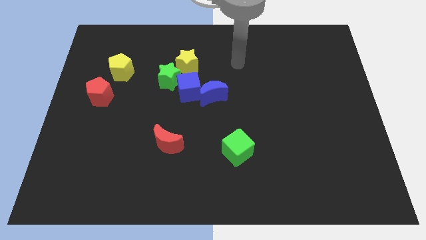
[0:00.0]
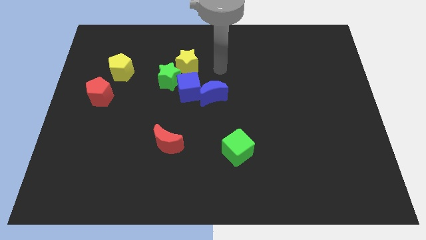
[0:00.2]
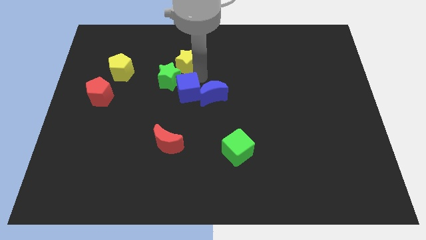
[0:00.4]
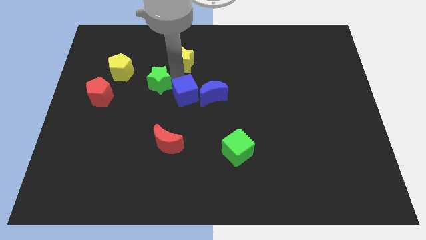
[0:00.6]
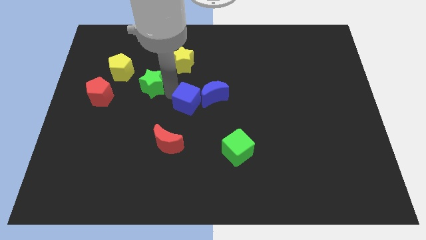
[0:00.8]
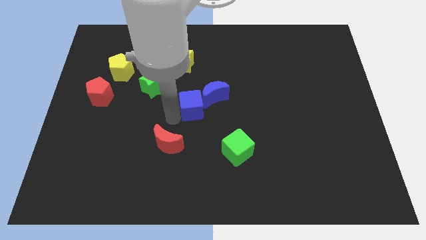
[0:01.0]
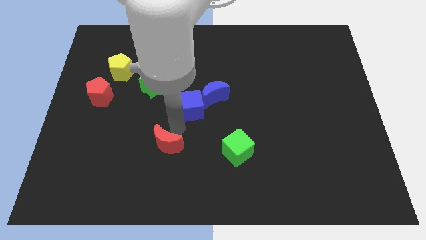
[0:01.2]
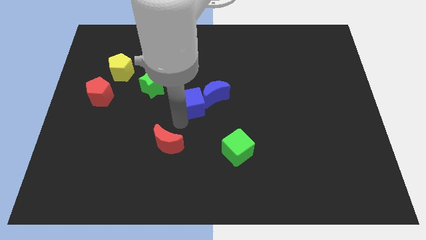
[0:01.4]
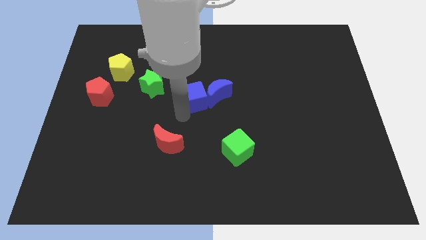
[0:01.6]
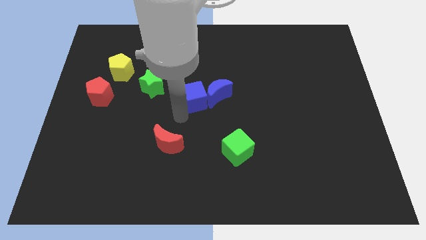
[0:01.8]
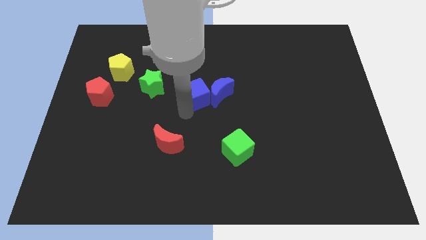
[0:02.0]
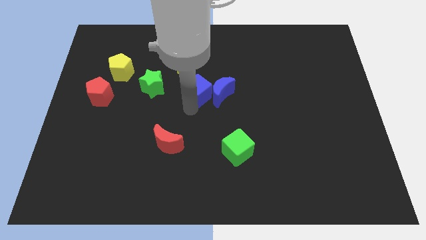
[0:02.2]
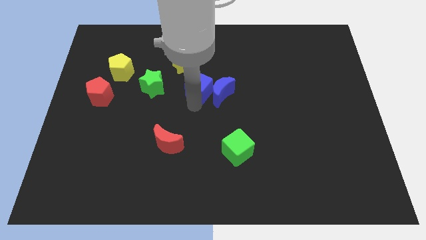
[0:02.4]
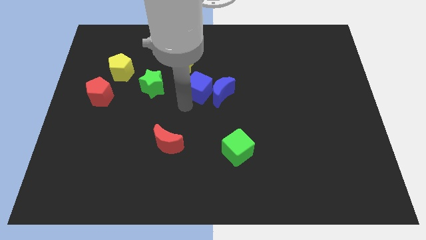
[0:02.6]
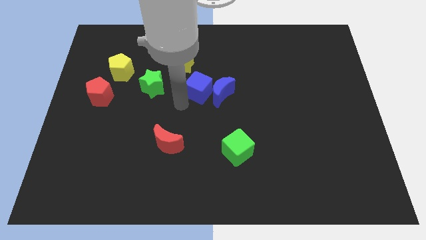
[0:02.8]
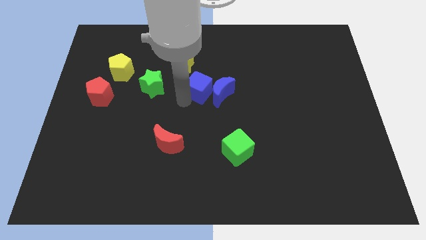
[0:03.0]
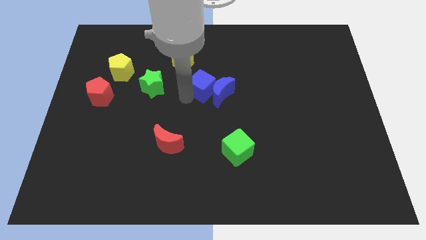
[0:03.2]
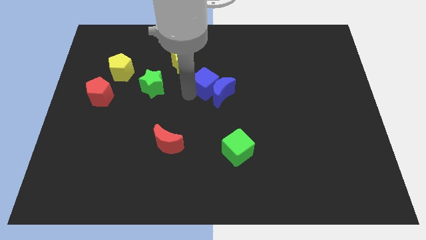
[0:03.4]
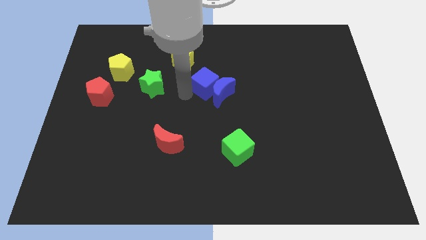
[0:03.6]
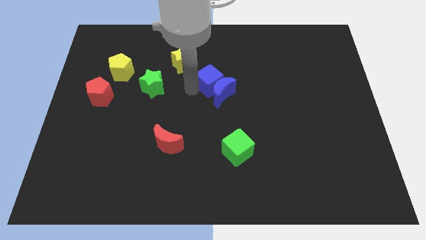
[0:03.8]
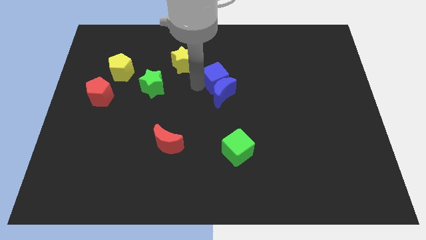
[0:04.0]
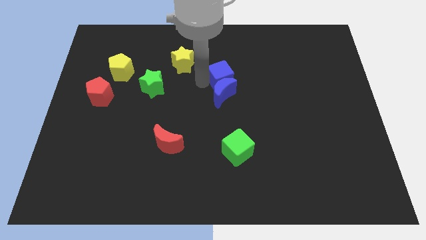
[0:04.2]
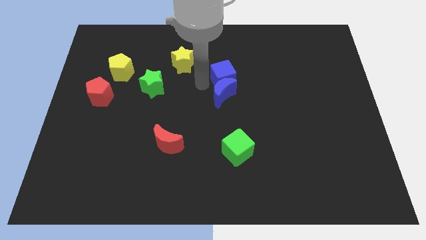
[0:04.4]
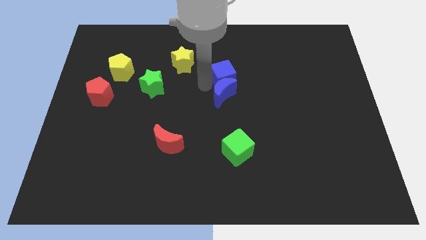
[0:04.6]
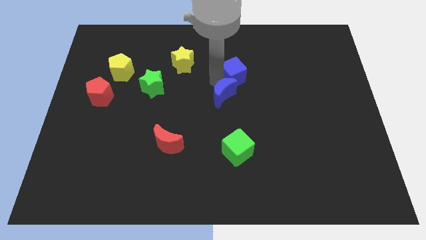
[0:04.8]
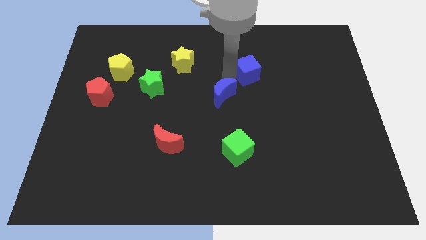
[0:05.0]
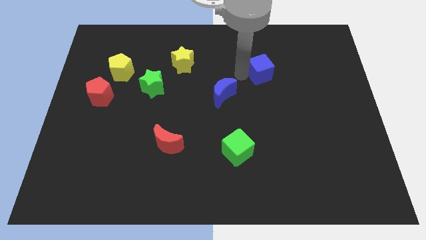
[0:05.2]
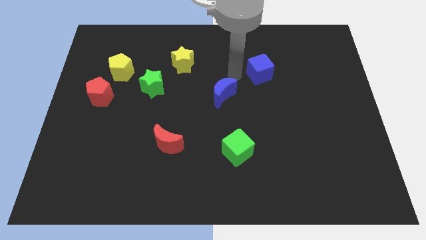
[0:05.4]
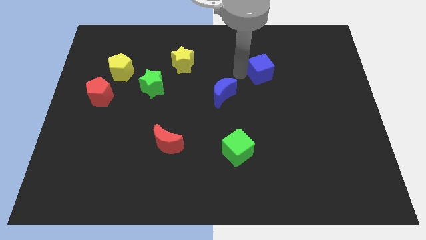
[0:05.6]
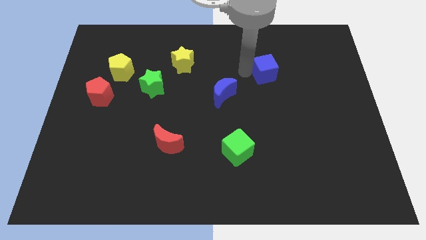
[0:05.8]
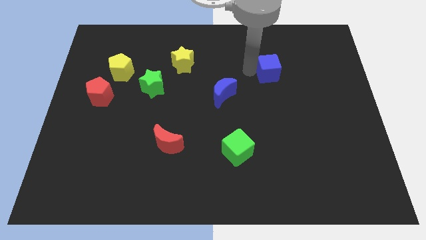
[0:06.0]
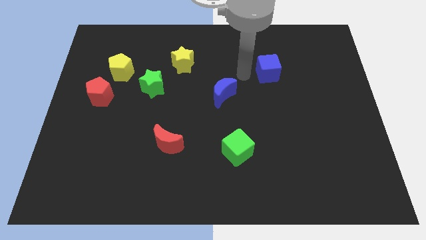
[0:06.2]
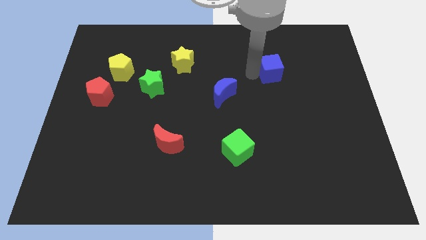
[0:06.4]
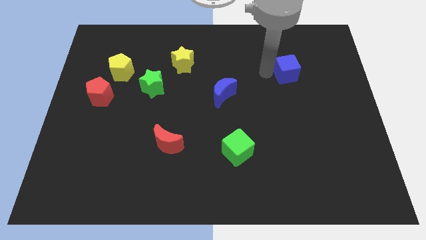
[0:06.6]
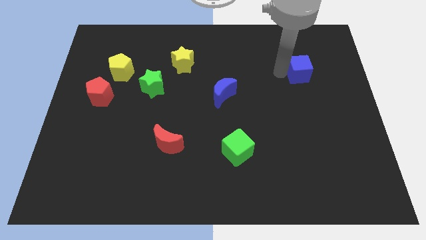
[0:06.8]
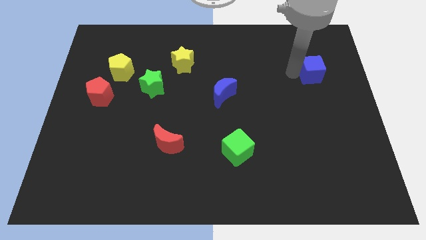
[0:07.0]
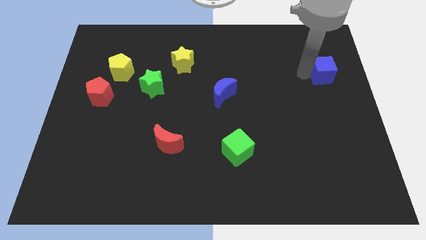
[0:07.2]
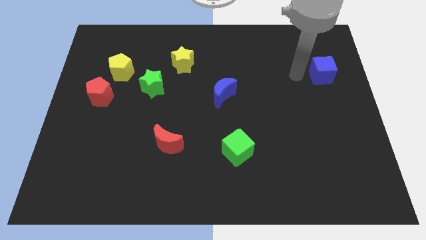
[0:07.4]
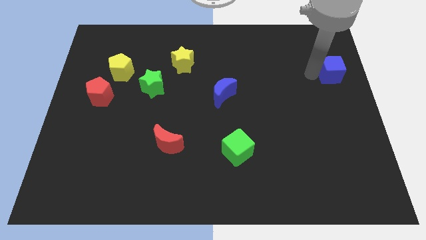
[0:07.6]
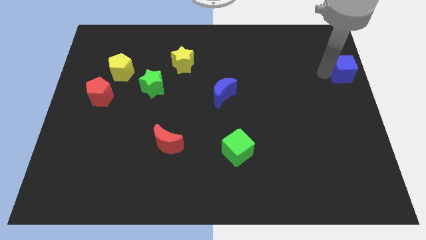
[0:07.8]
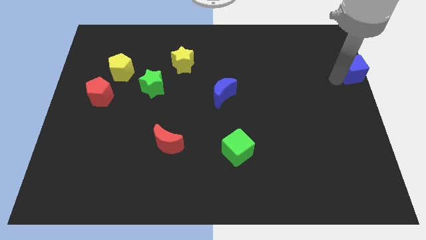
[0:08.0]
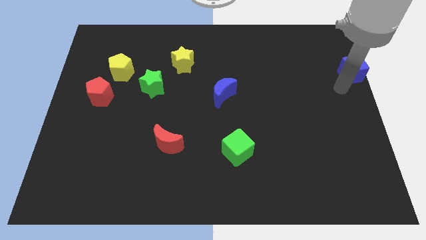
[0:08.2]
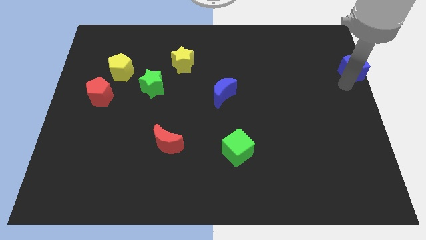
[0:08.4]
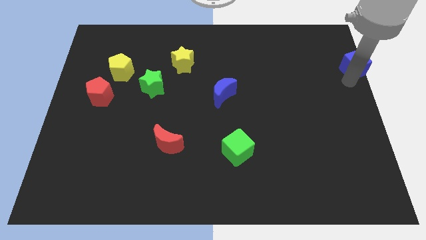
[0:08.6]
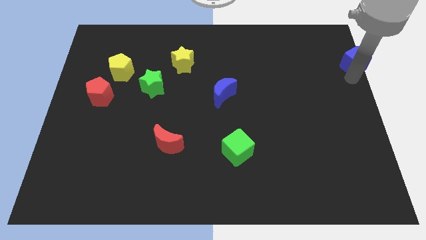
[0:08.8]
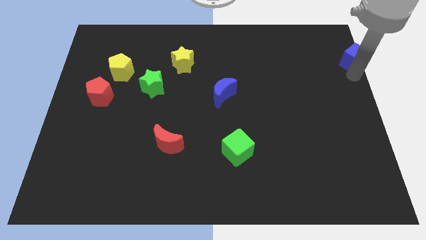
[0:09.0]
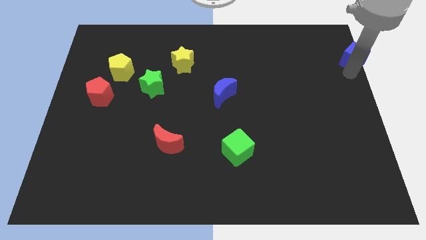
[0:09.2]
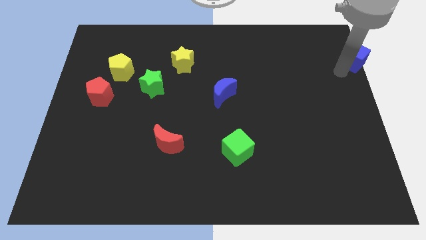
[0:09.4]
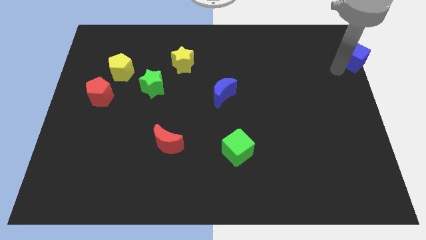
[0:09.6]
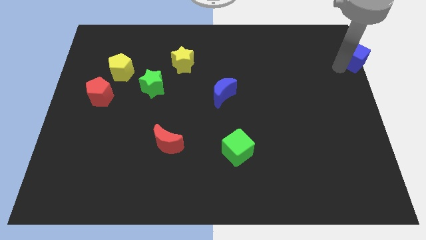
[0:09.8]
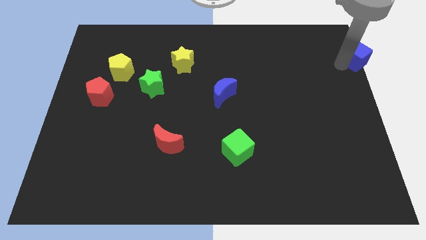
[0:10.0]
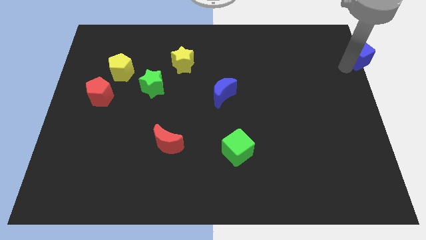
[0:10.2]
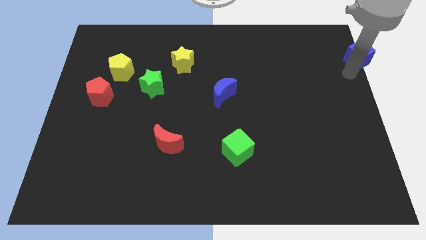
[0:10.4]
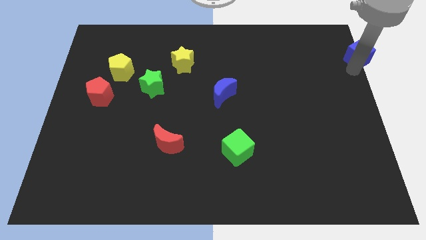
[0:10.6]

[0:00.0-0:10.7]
push the blue cube to the top right corner

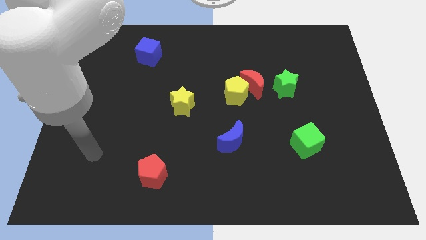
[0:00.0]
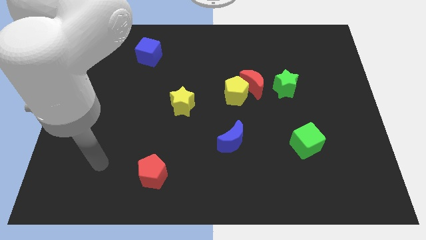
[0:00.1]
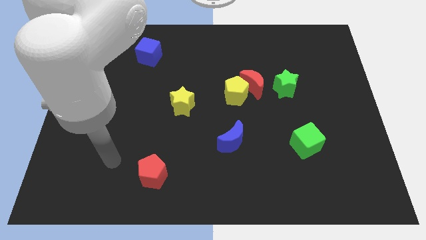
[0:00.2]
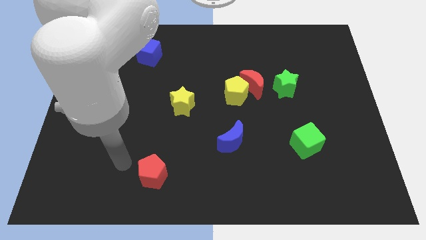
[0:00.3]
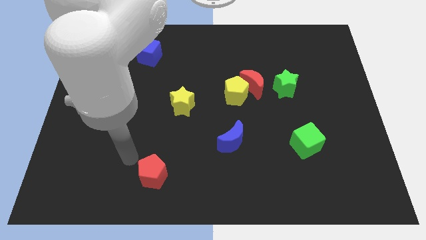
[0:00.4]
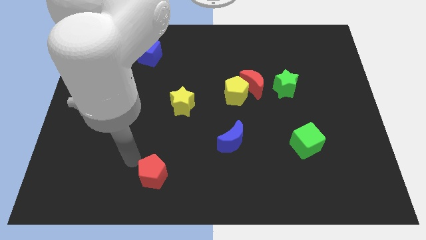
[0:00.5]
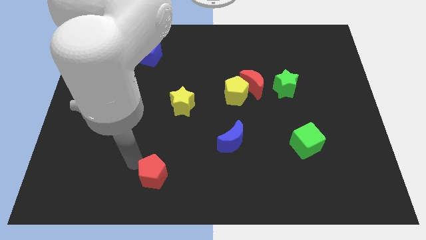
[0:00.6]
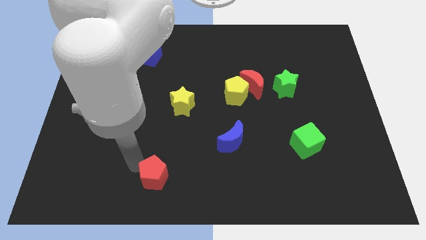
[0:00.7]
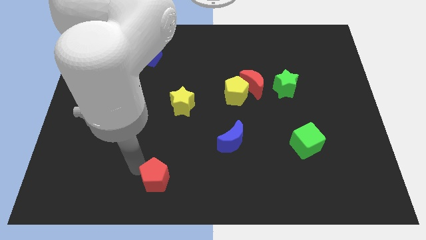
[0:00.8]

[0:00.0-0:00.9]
put the red pentagon to the bottom side
